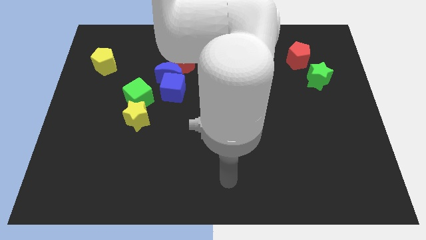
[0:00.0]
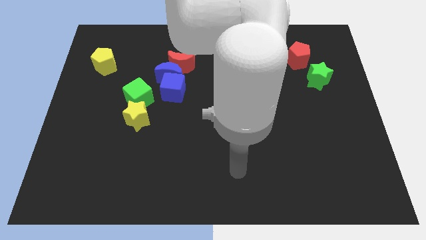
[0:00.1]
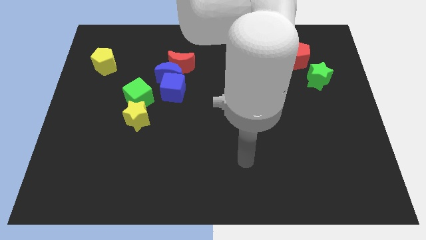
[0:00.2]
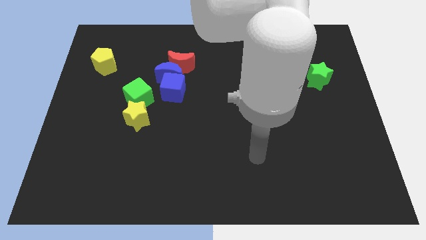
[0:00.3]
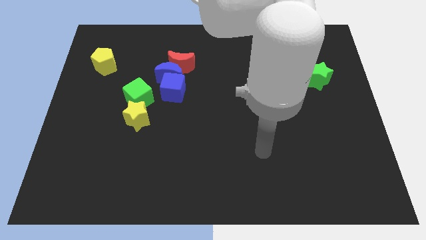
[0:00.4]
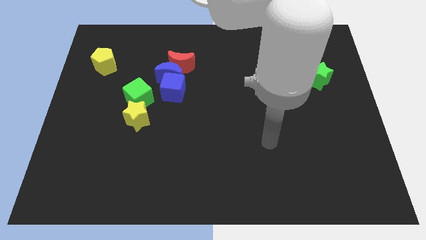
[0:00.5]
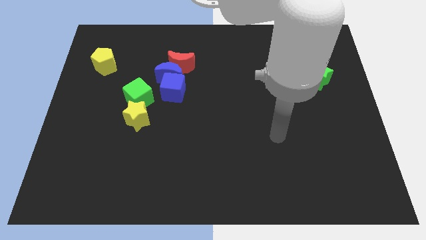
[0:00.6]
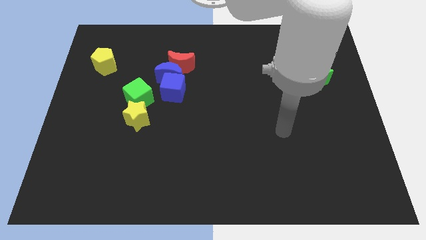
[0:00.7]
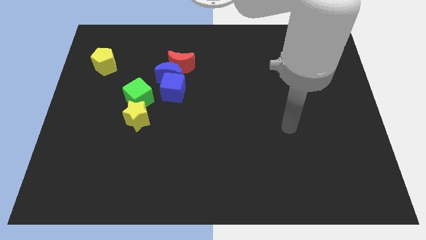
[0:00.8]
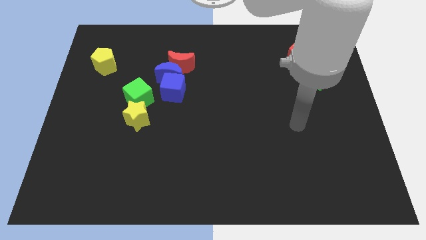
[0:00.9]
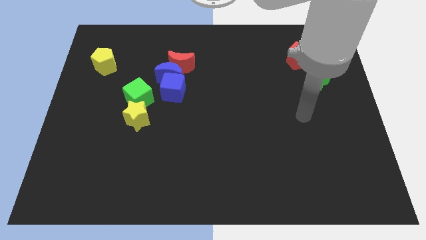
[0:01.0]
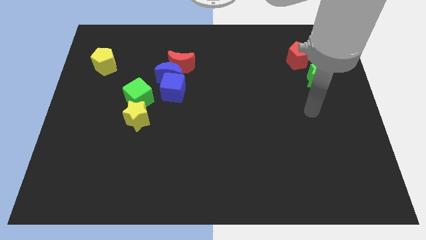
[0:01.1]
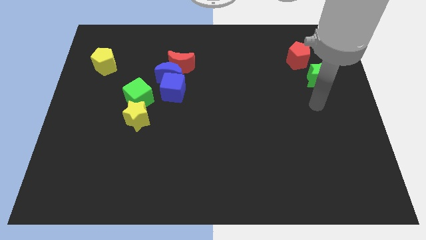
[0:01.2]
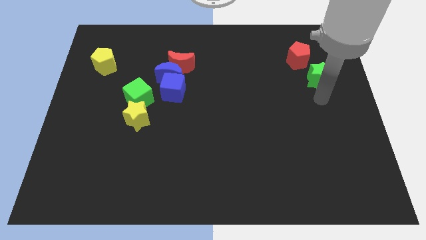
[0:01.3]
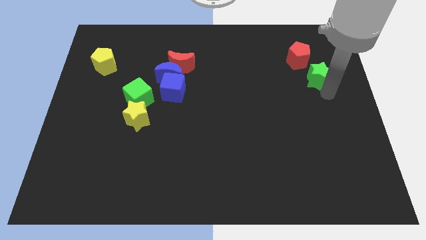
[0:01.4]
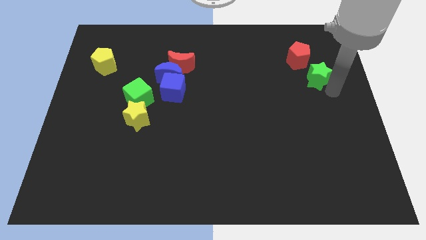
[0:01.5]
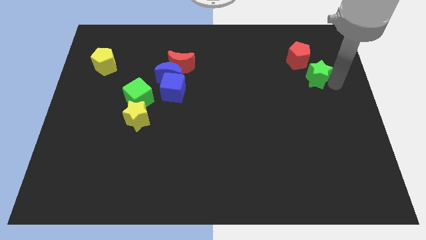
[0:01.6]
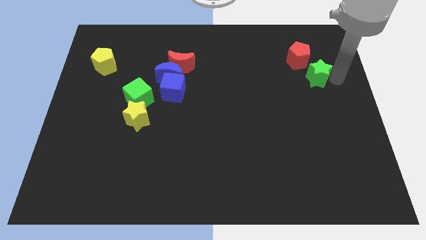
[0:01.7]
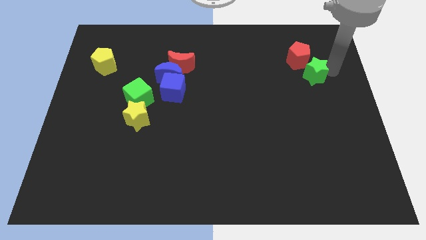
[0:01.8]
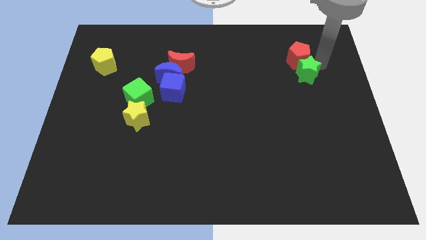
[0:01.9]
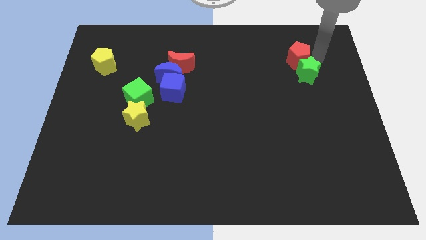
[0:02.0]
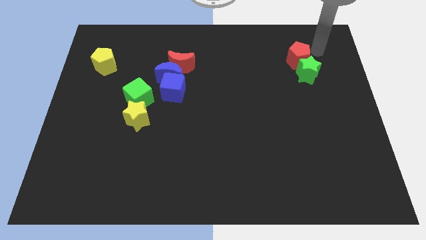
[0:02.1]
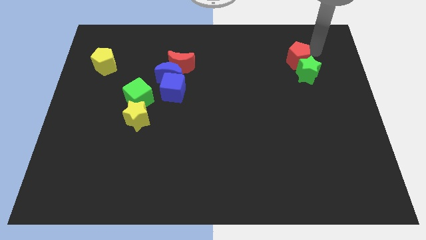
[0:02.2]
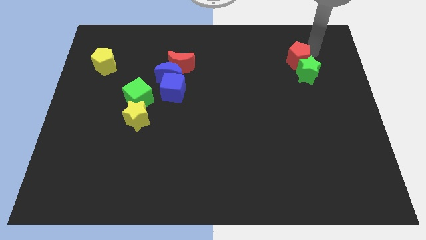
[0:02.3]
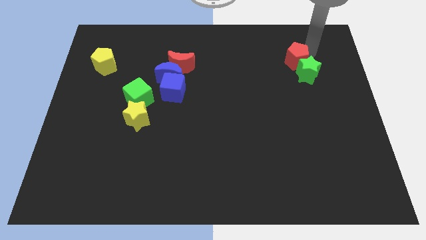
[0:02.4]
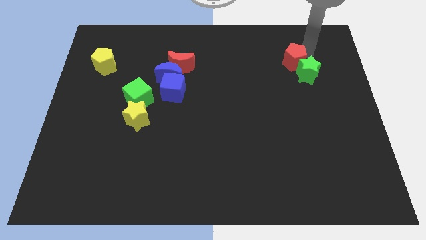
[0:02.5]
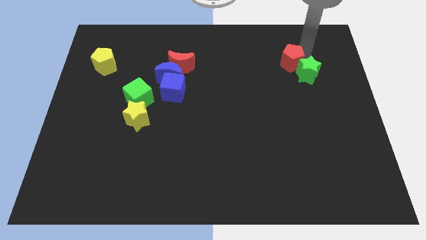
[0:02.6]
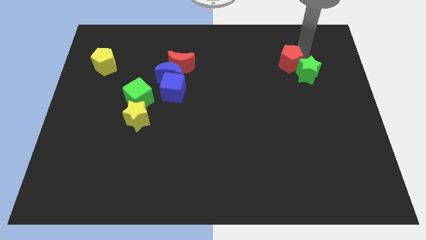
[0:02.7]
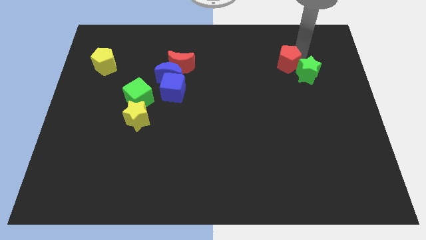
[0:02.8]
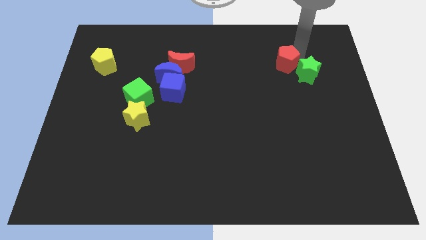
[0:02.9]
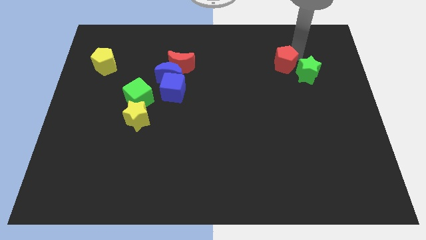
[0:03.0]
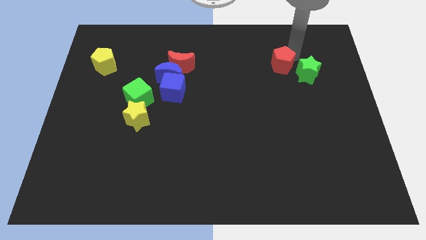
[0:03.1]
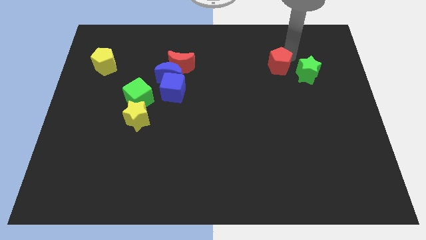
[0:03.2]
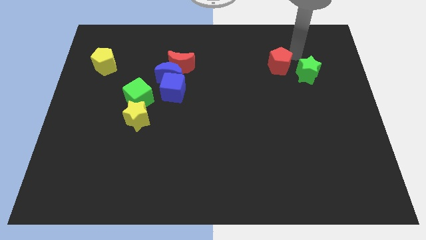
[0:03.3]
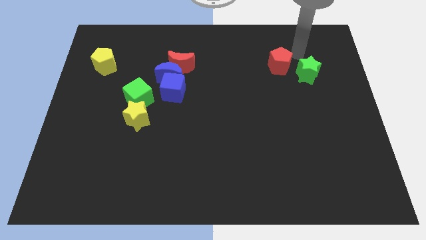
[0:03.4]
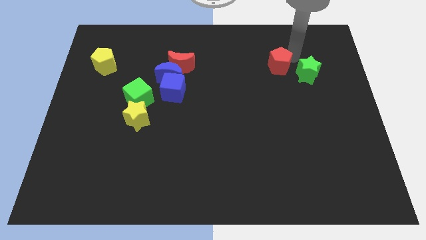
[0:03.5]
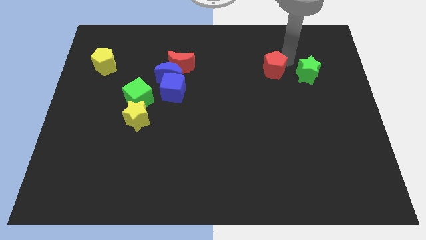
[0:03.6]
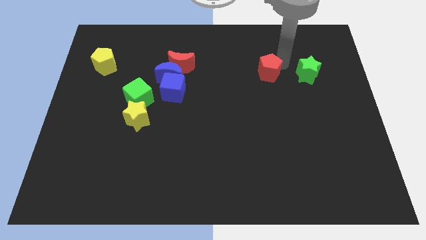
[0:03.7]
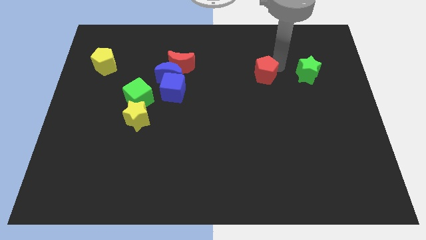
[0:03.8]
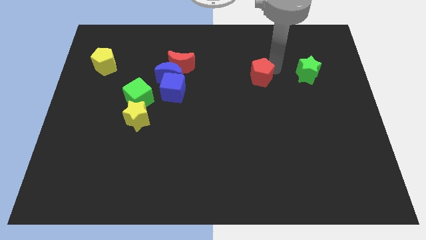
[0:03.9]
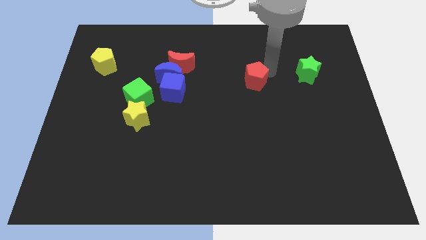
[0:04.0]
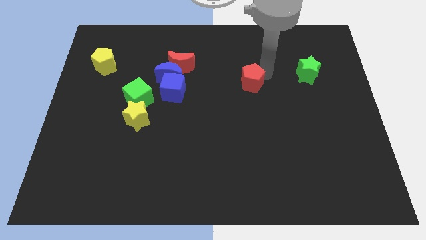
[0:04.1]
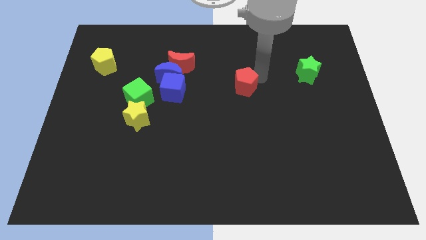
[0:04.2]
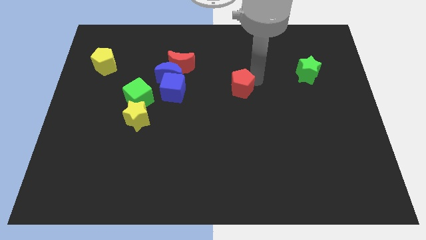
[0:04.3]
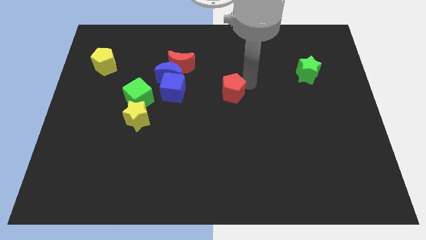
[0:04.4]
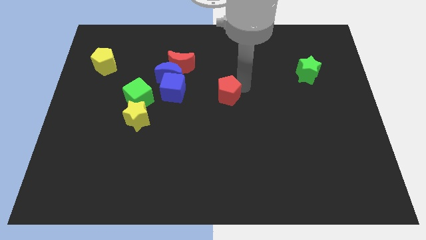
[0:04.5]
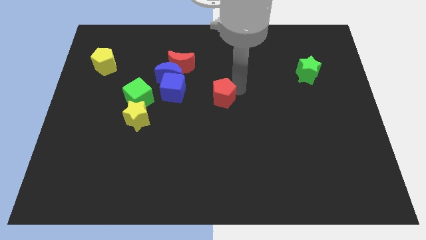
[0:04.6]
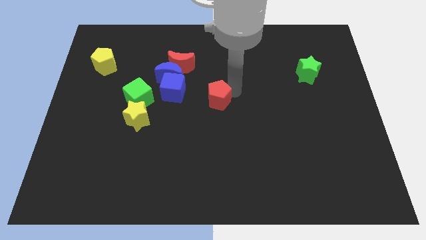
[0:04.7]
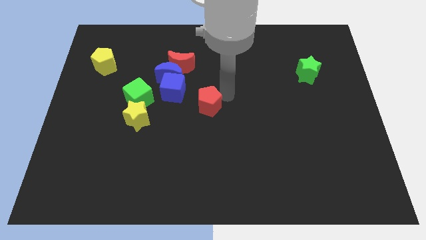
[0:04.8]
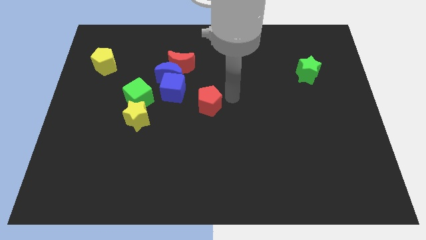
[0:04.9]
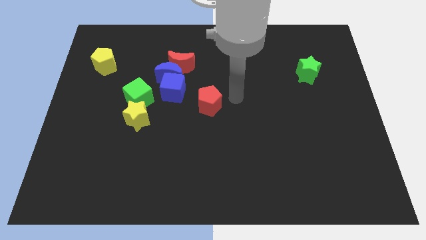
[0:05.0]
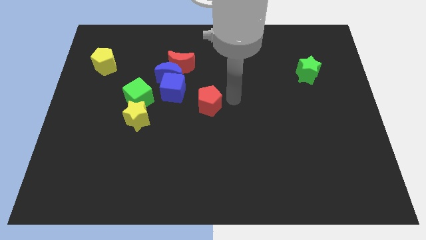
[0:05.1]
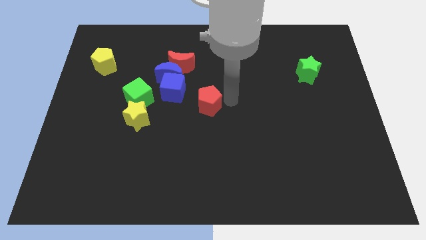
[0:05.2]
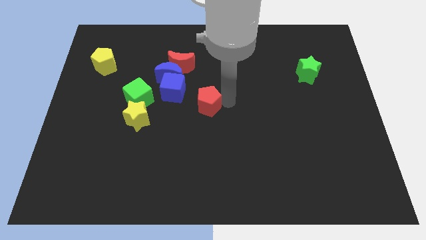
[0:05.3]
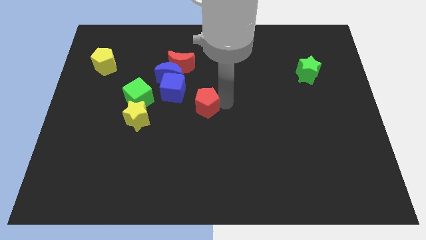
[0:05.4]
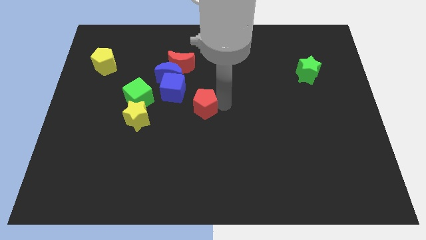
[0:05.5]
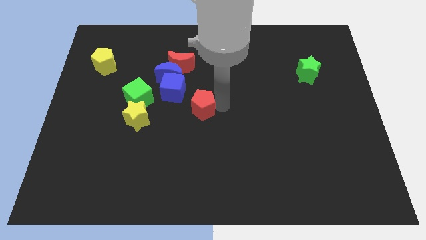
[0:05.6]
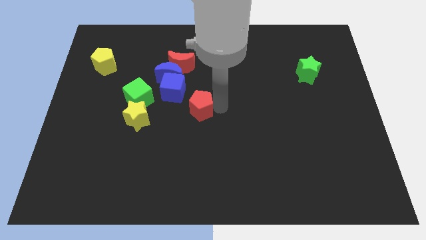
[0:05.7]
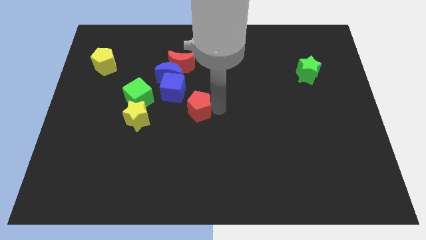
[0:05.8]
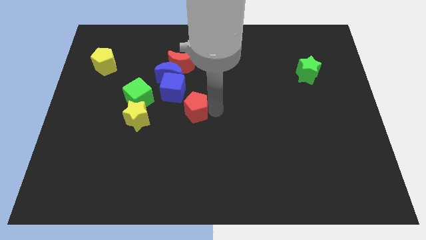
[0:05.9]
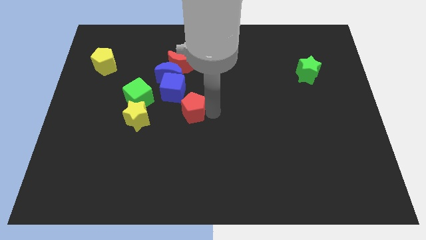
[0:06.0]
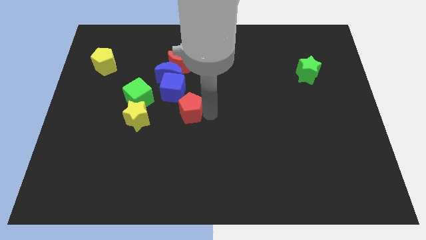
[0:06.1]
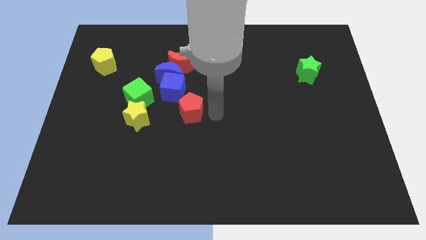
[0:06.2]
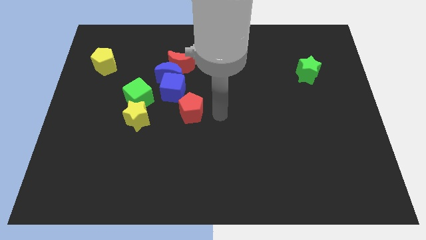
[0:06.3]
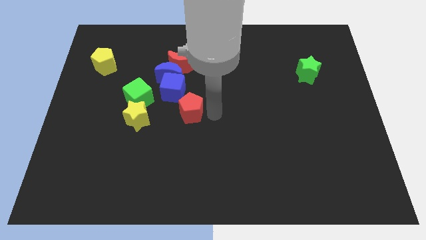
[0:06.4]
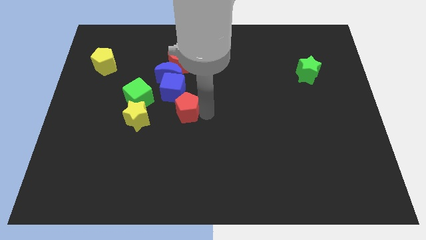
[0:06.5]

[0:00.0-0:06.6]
put the red pentagon below the blue moon

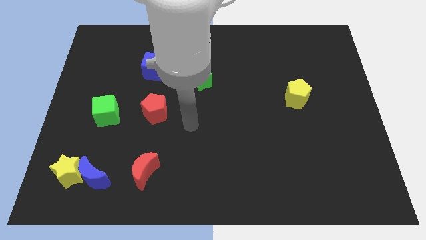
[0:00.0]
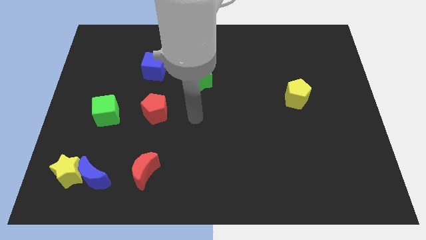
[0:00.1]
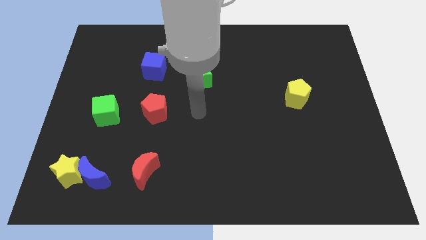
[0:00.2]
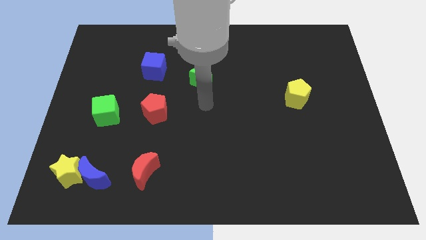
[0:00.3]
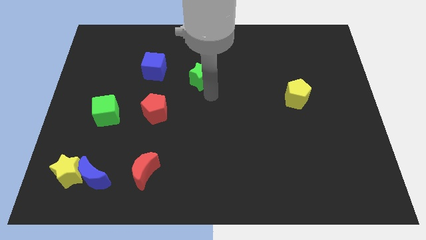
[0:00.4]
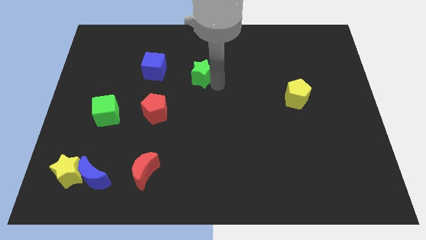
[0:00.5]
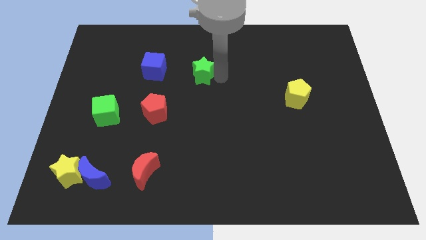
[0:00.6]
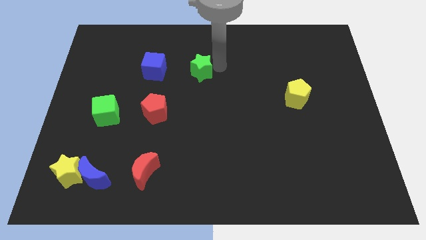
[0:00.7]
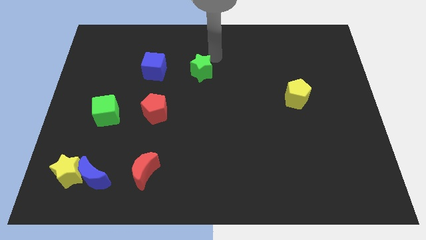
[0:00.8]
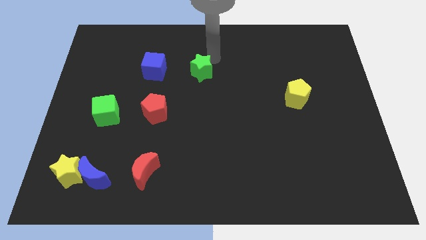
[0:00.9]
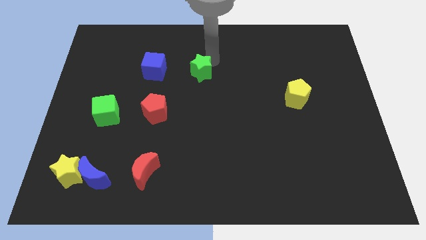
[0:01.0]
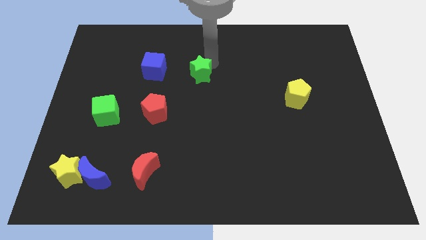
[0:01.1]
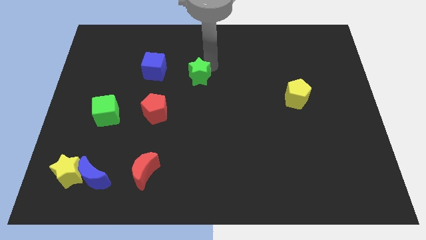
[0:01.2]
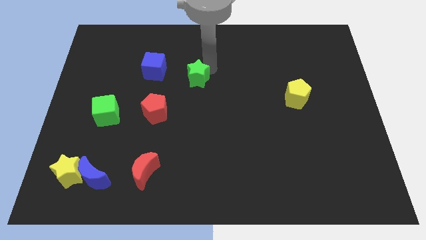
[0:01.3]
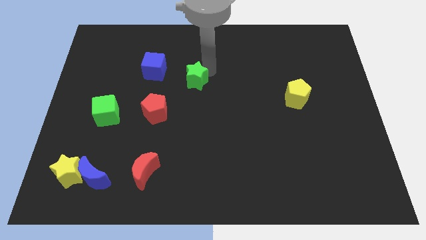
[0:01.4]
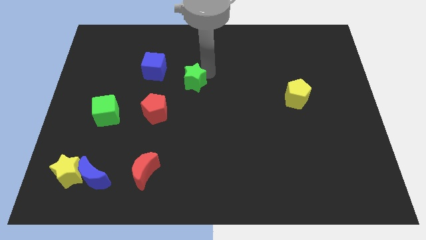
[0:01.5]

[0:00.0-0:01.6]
move the green star to the top right of the red pentagon
